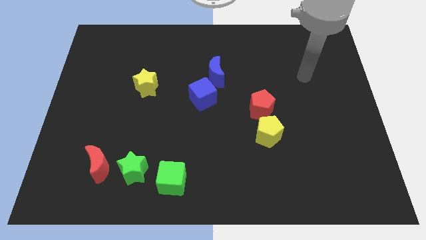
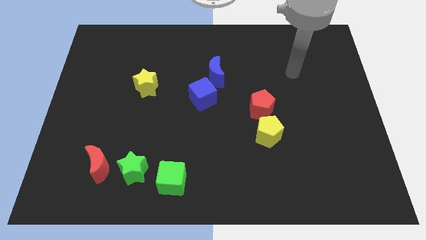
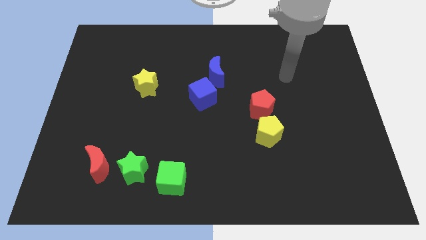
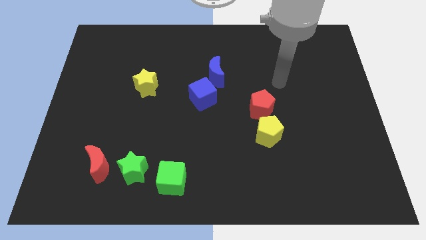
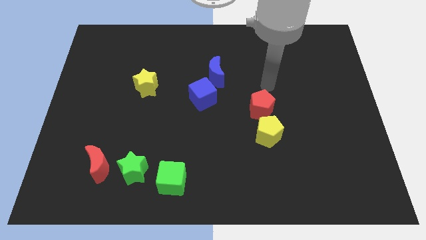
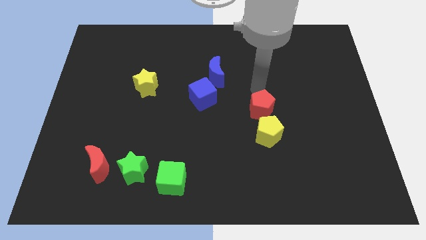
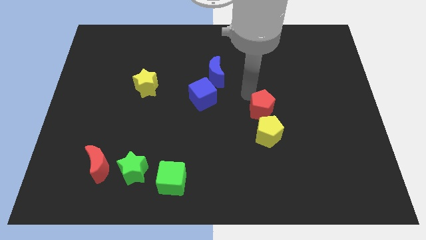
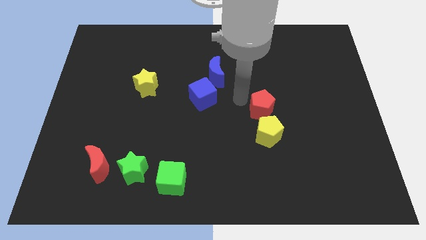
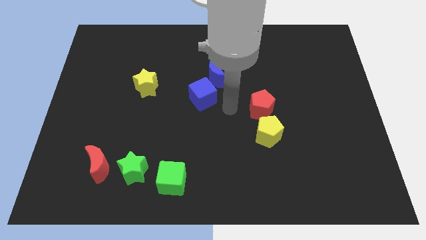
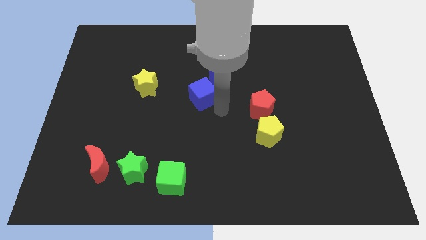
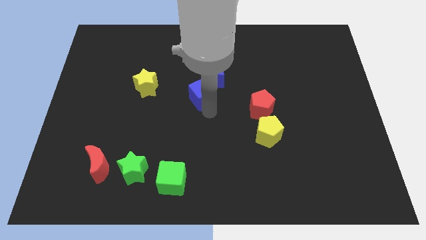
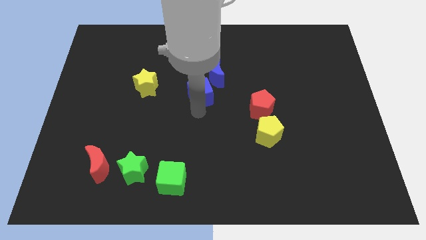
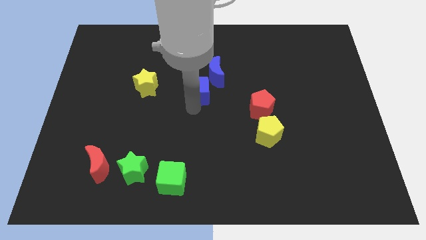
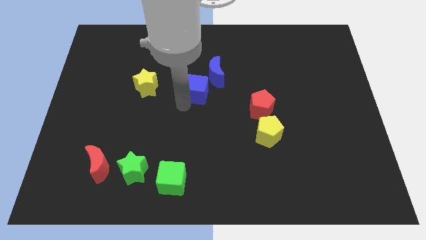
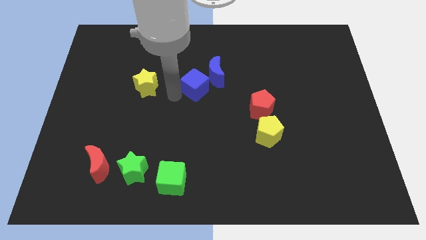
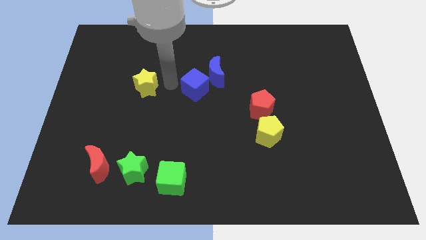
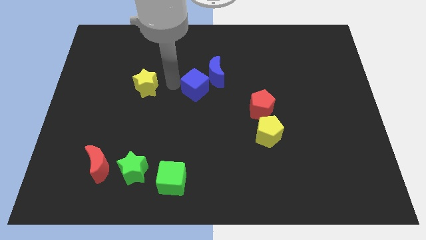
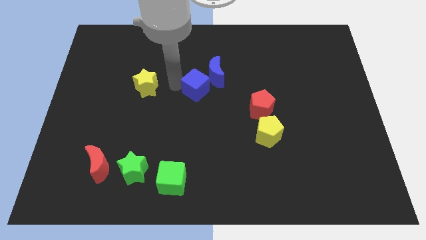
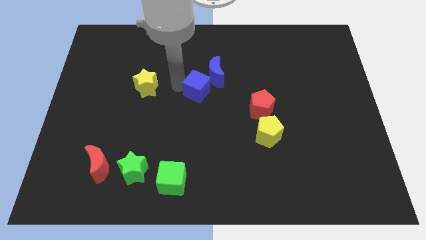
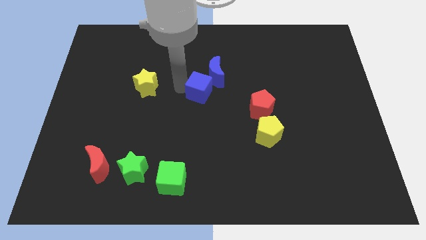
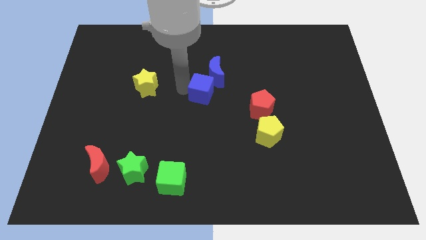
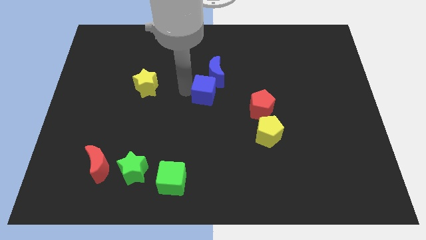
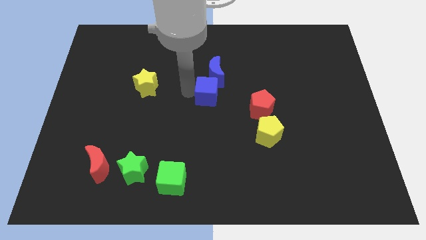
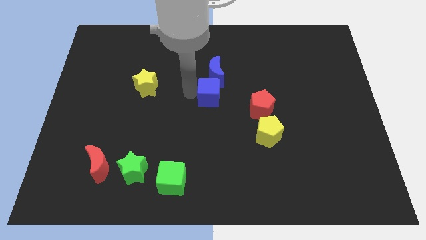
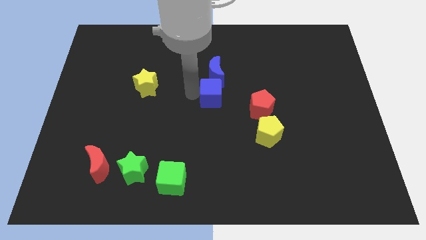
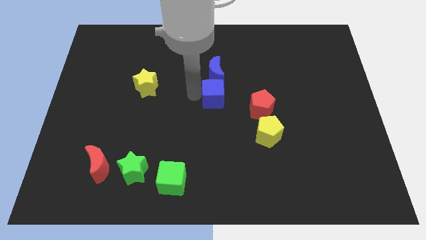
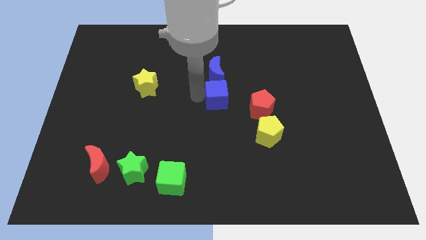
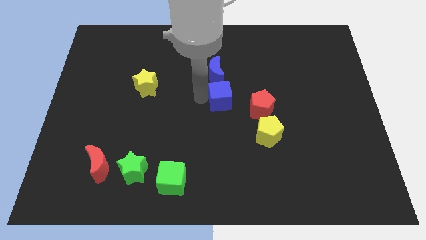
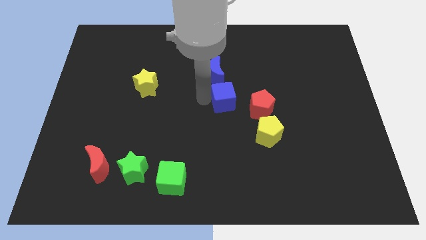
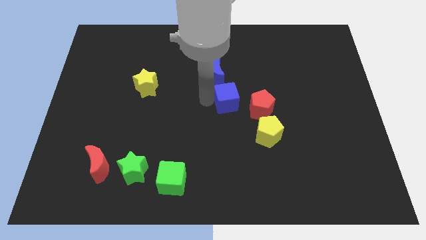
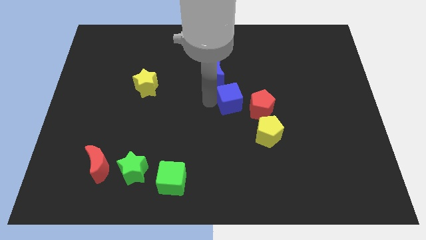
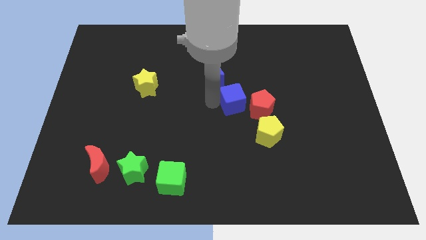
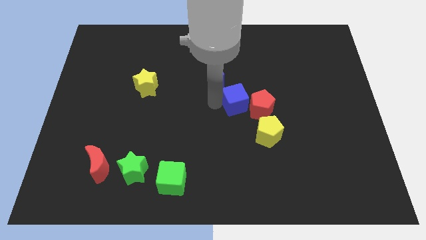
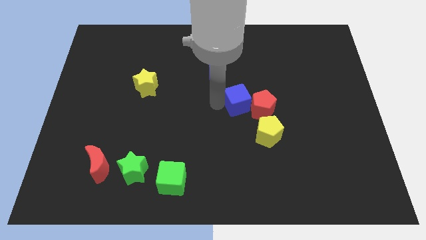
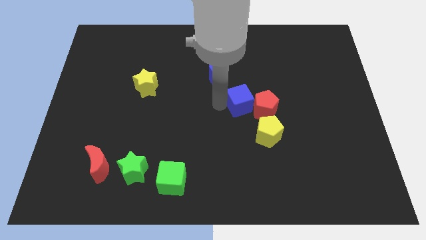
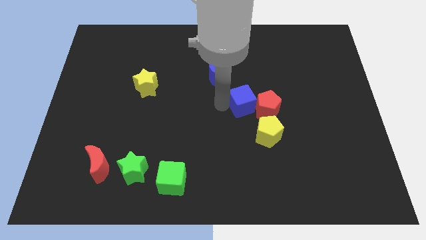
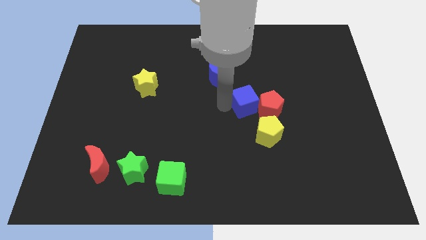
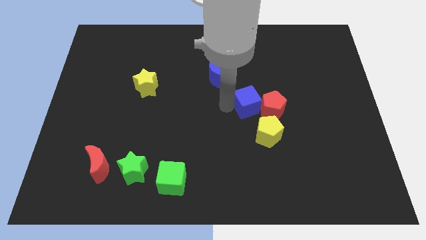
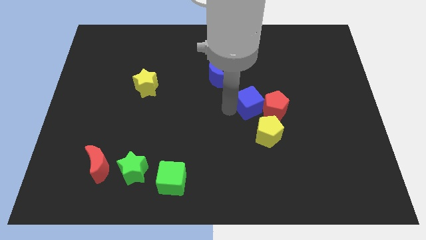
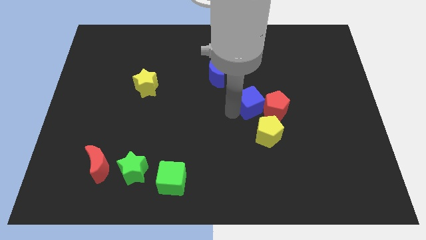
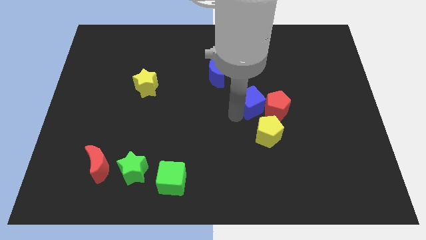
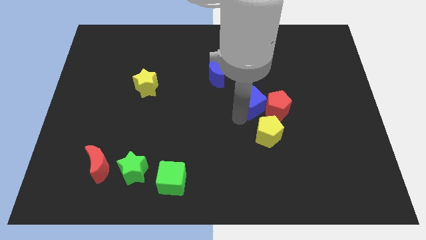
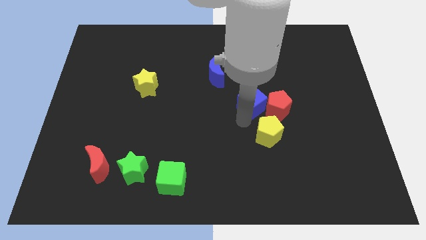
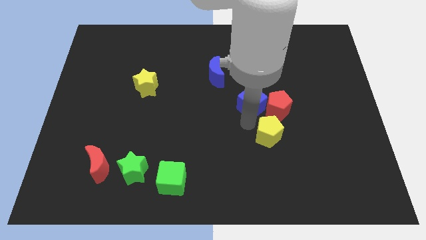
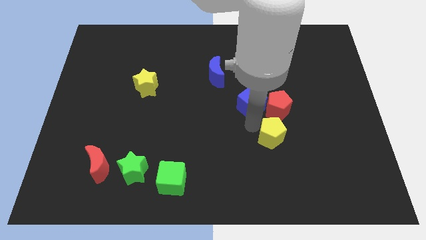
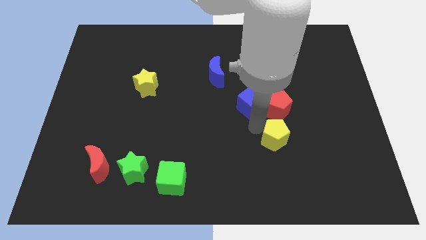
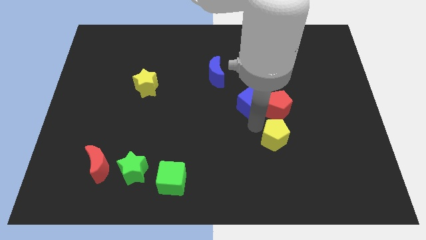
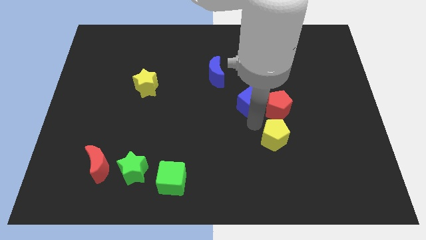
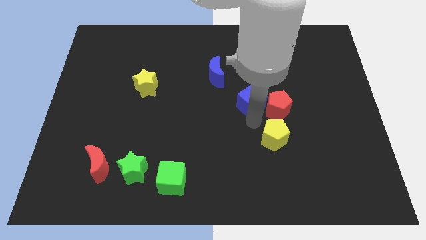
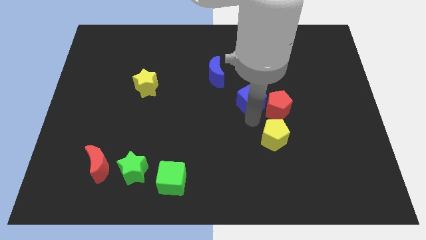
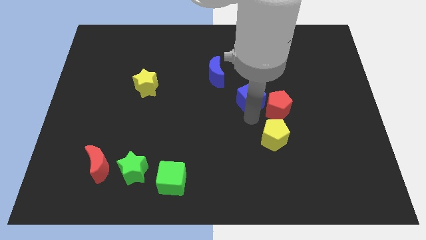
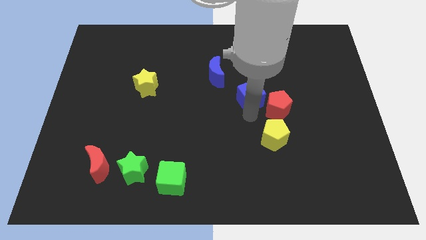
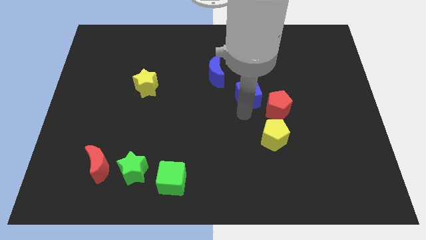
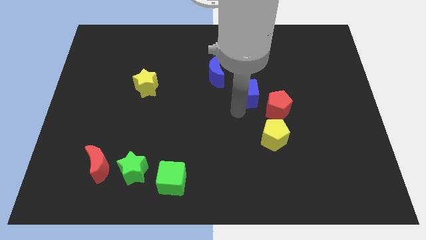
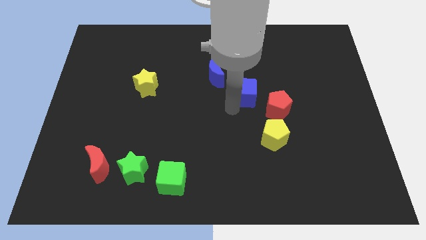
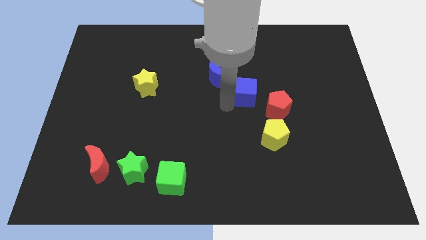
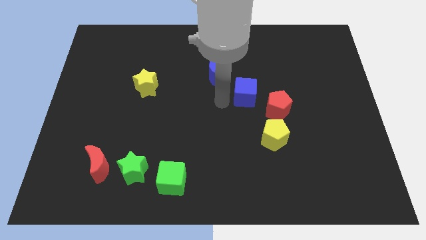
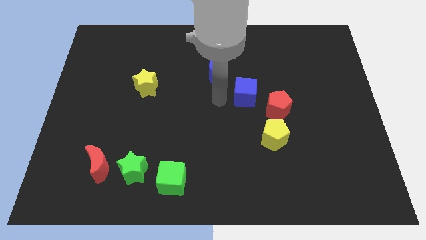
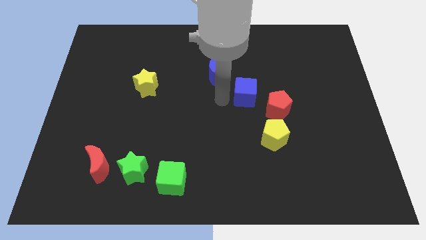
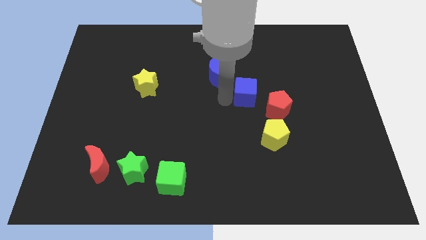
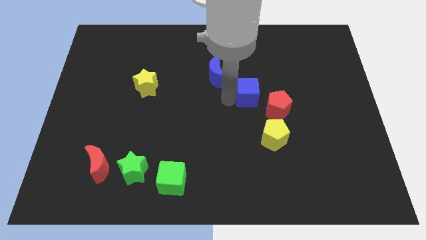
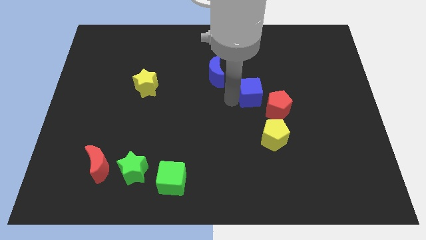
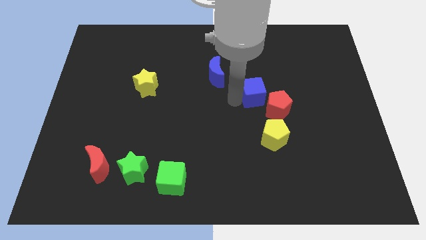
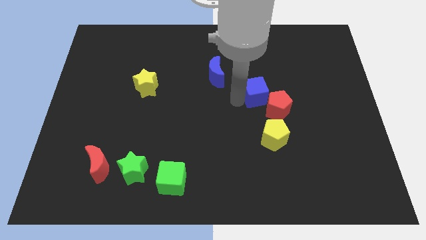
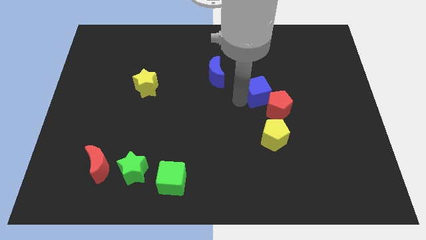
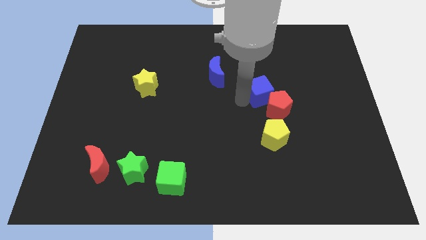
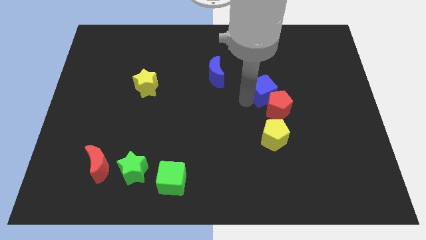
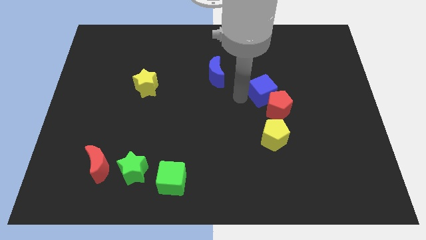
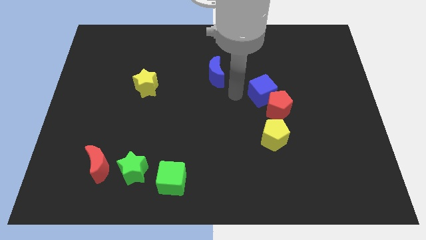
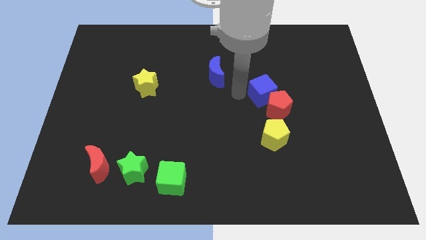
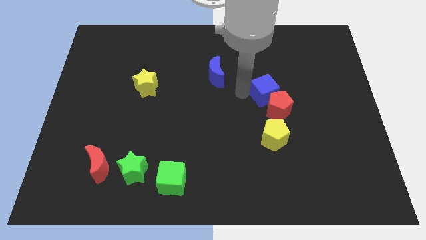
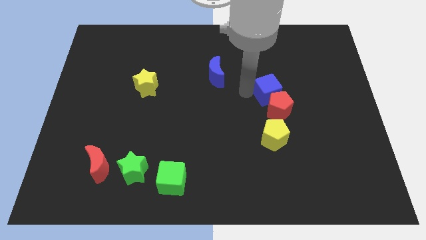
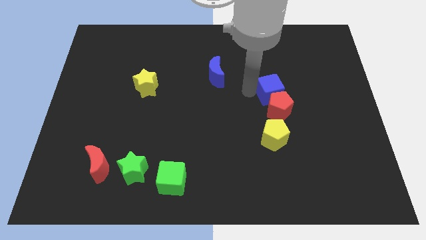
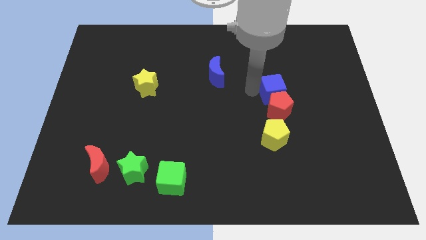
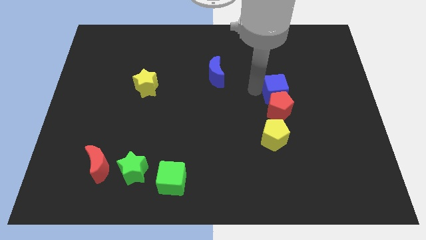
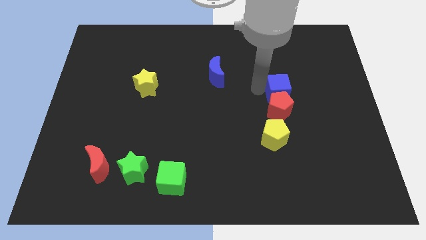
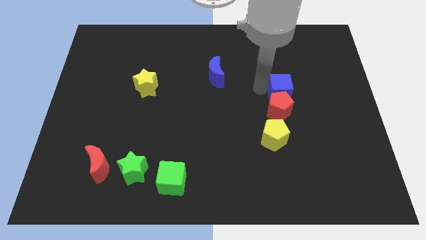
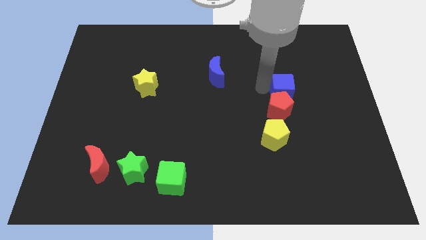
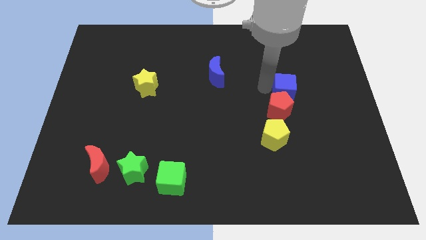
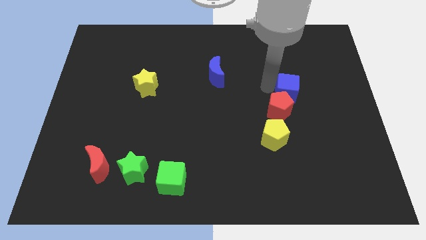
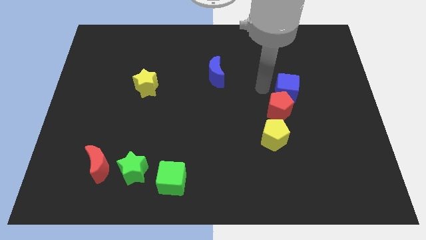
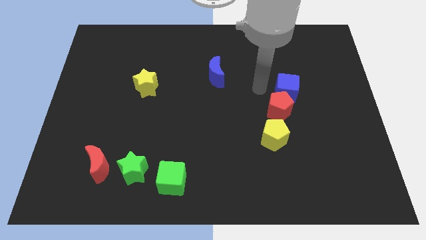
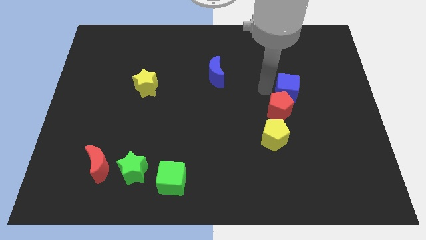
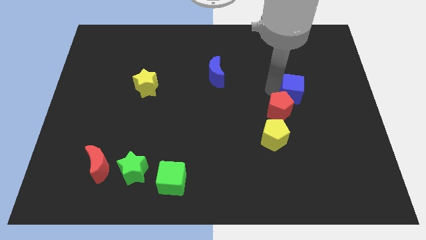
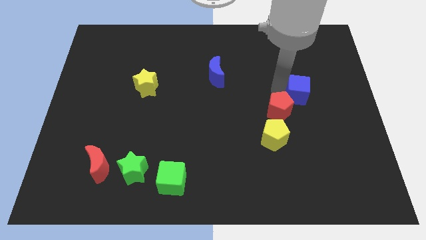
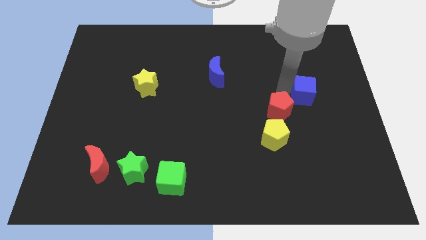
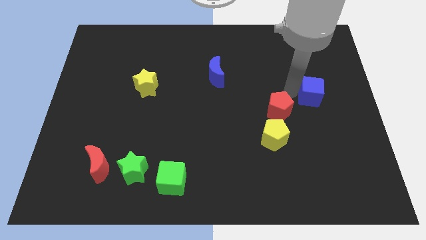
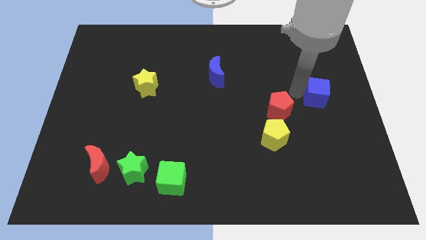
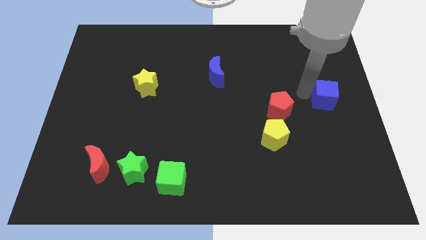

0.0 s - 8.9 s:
move the blue cube to the center right
